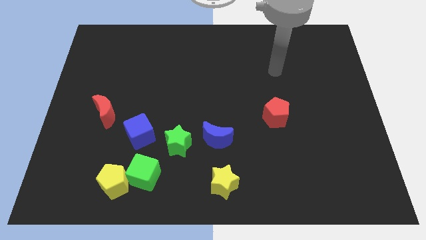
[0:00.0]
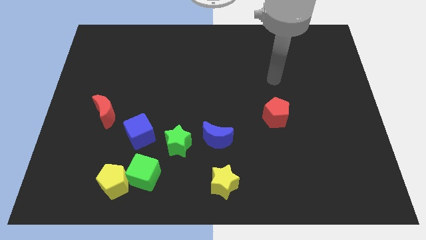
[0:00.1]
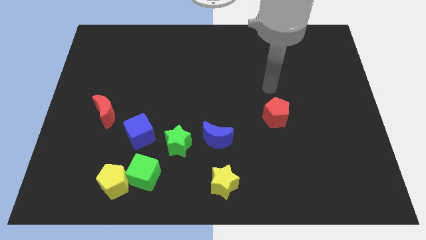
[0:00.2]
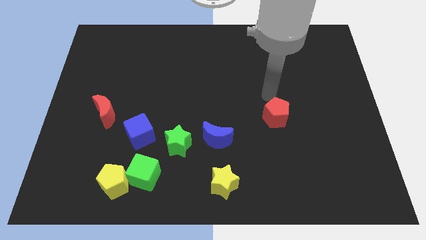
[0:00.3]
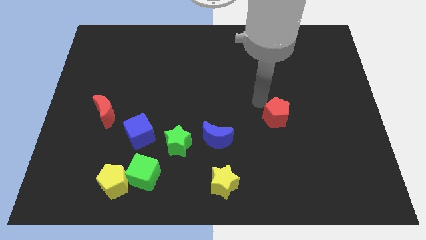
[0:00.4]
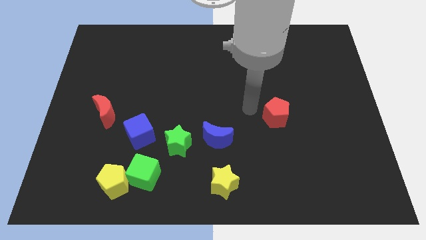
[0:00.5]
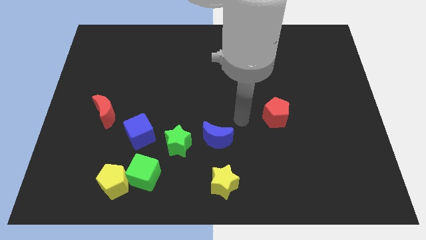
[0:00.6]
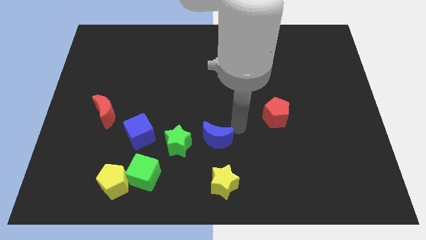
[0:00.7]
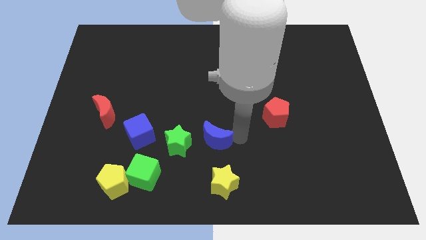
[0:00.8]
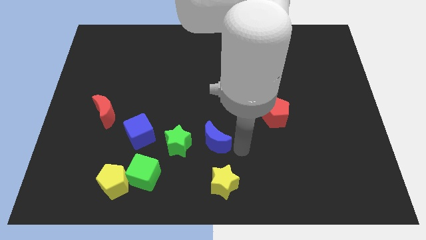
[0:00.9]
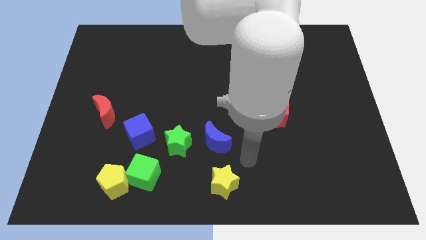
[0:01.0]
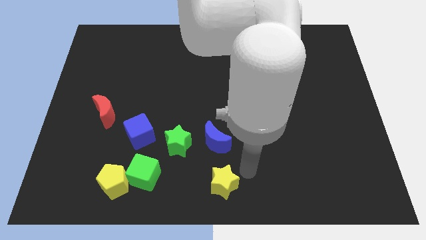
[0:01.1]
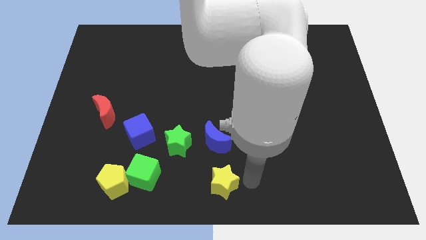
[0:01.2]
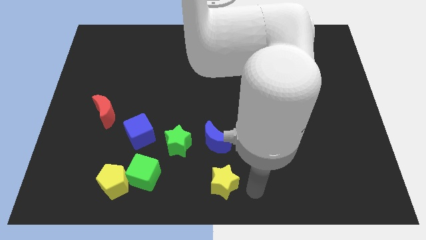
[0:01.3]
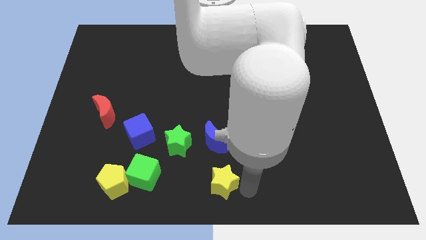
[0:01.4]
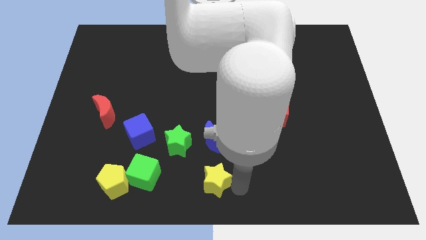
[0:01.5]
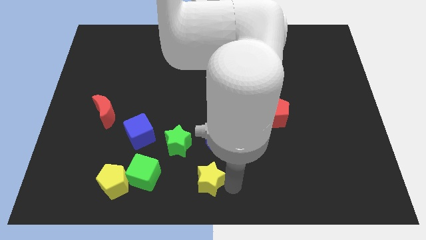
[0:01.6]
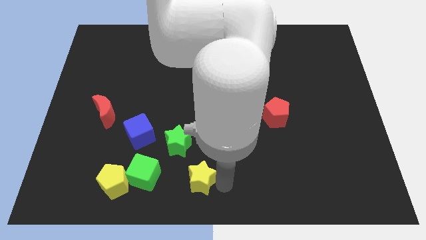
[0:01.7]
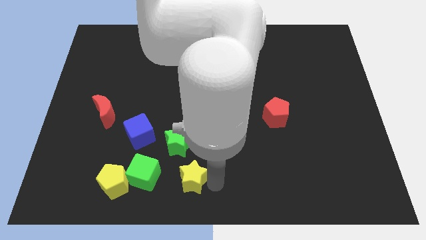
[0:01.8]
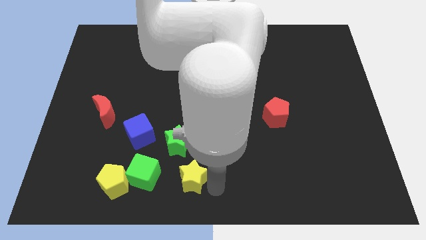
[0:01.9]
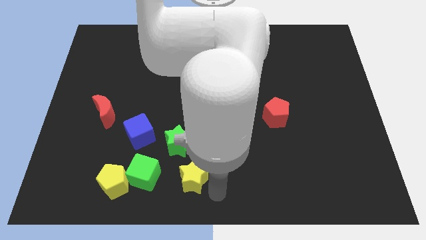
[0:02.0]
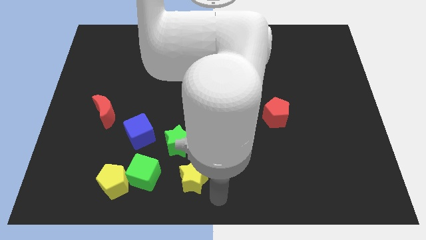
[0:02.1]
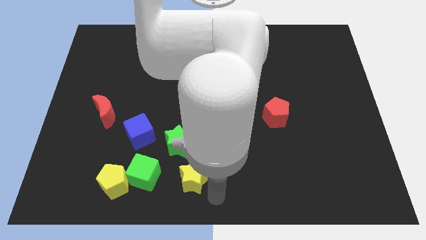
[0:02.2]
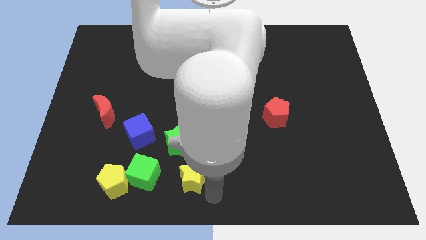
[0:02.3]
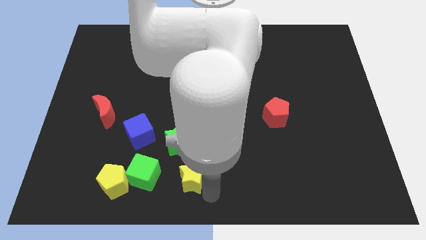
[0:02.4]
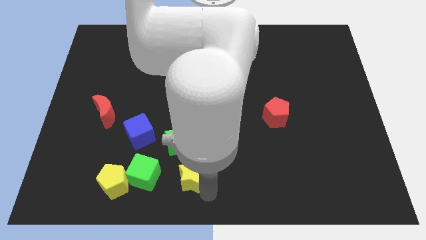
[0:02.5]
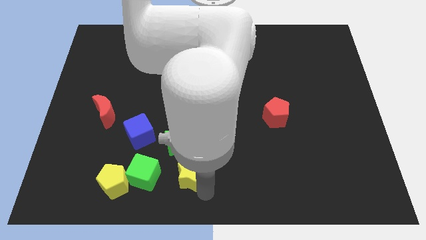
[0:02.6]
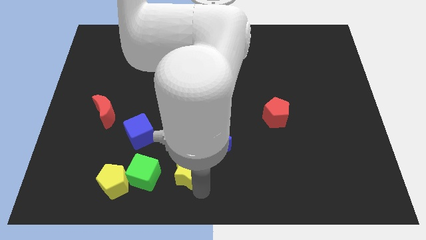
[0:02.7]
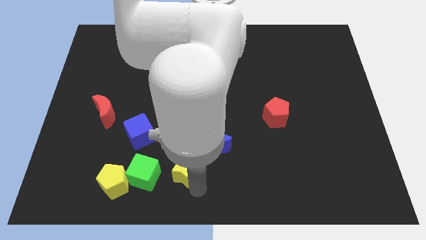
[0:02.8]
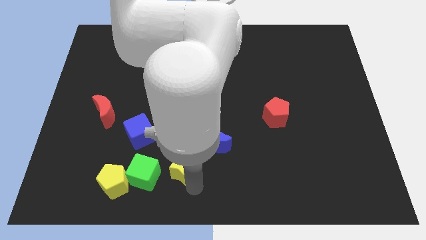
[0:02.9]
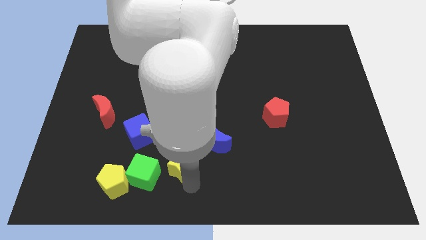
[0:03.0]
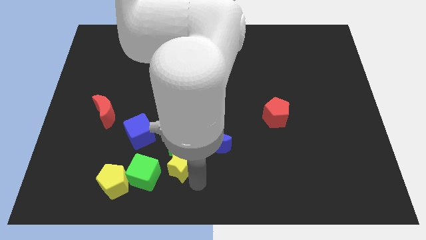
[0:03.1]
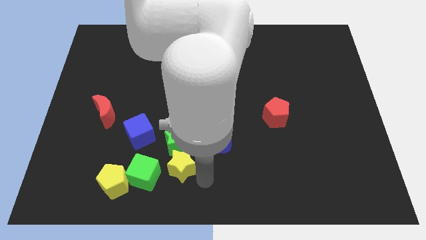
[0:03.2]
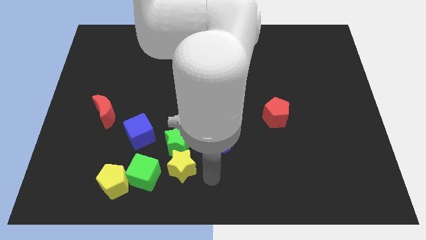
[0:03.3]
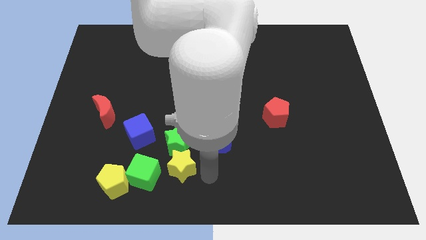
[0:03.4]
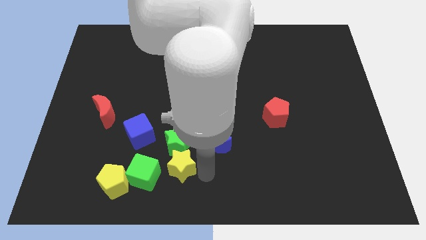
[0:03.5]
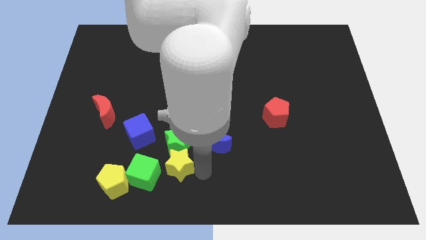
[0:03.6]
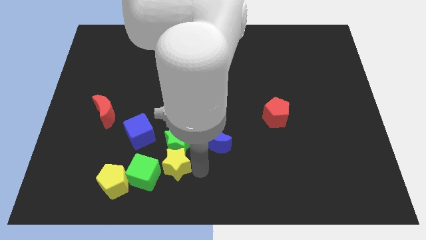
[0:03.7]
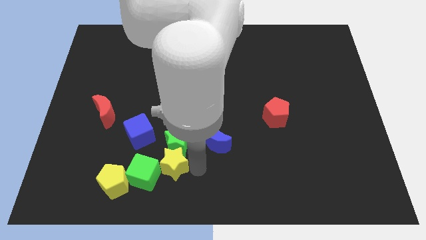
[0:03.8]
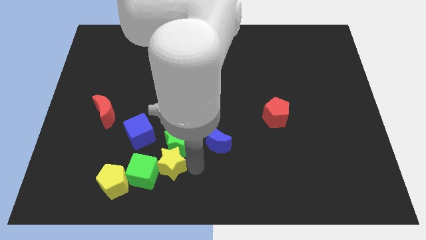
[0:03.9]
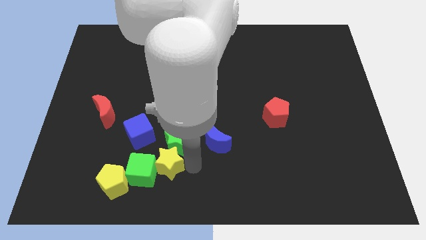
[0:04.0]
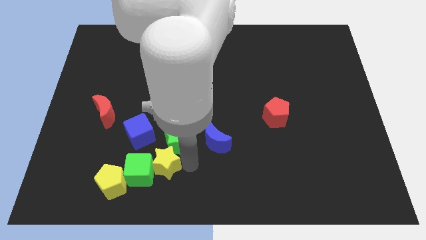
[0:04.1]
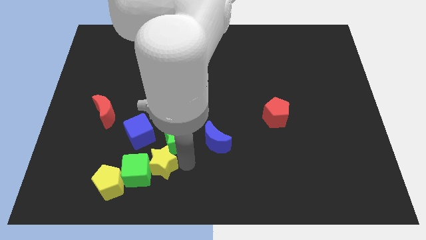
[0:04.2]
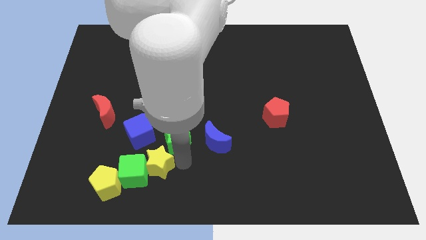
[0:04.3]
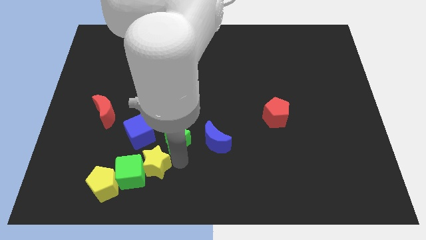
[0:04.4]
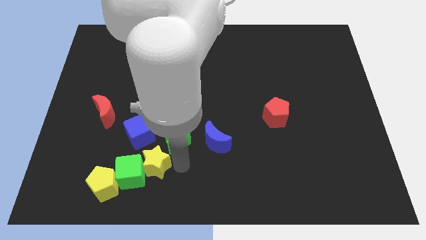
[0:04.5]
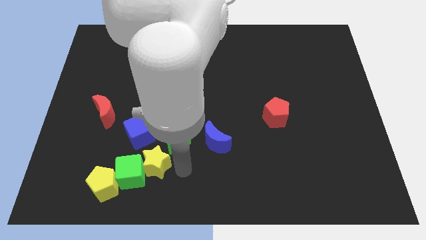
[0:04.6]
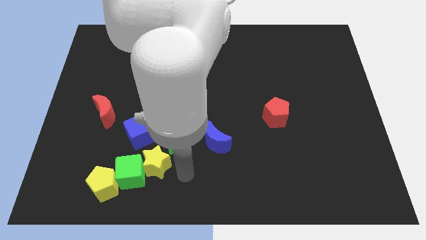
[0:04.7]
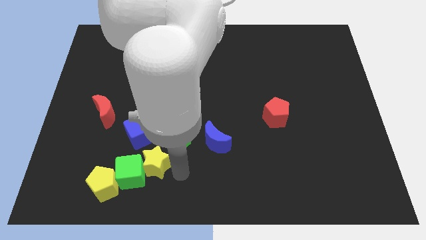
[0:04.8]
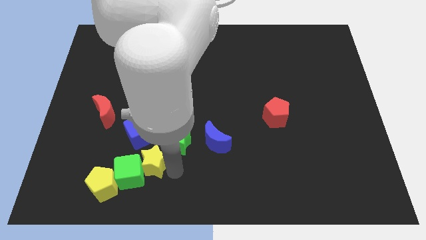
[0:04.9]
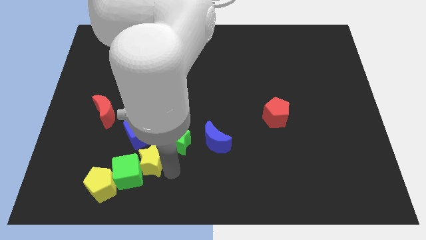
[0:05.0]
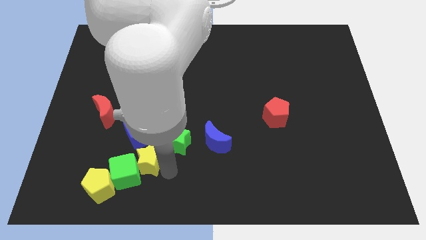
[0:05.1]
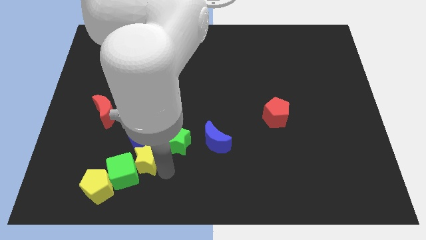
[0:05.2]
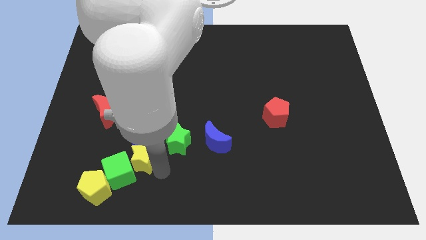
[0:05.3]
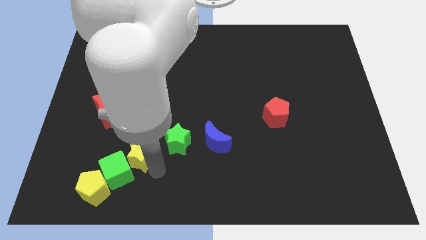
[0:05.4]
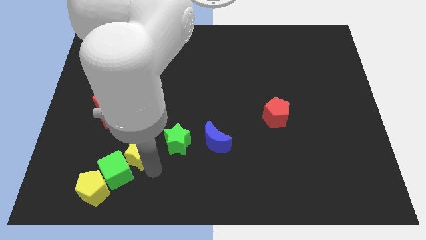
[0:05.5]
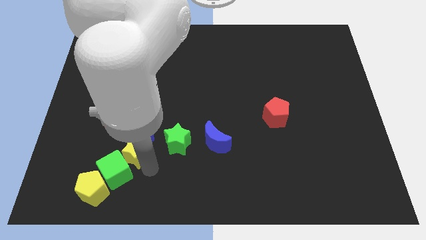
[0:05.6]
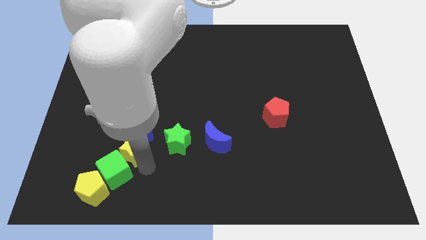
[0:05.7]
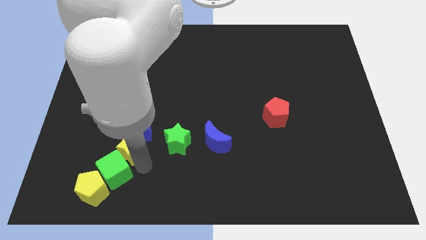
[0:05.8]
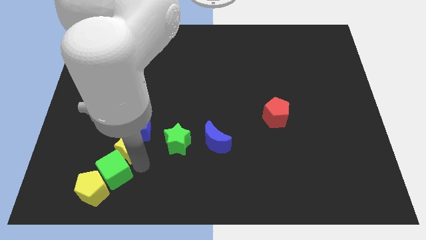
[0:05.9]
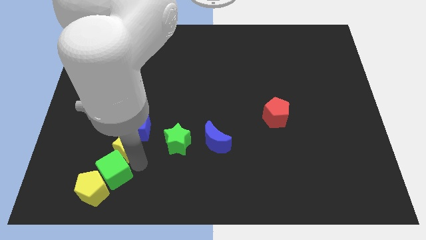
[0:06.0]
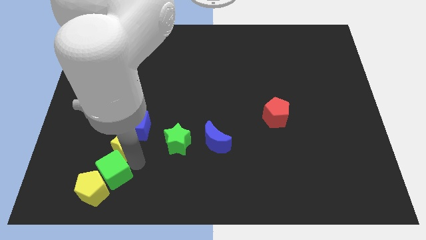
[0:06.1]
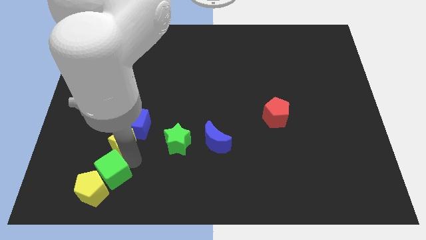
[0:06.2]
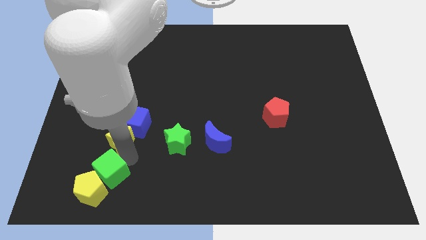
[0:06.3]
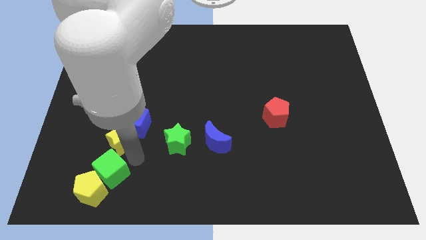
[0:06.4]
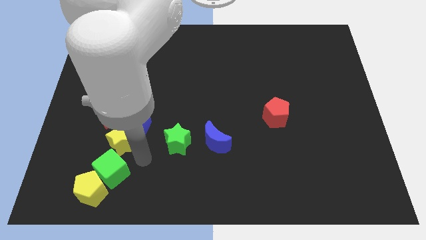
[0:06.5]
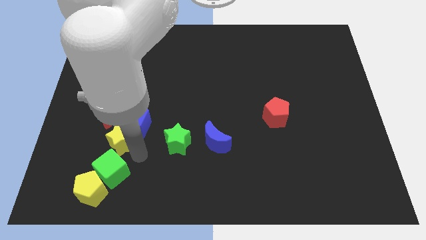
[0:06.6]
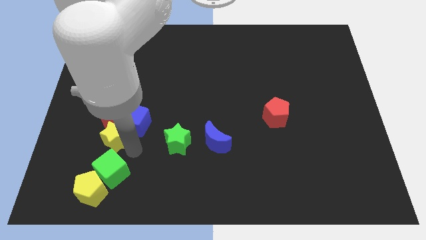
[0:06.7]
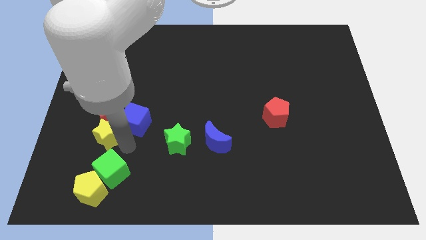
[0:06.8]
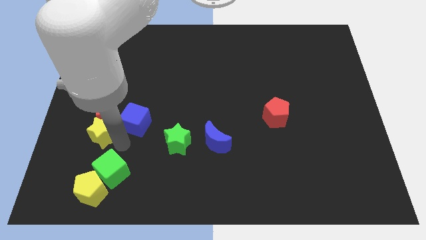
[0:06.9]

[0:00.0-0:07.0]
push the yellow star close to the red moon
